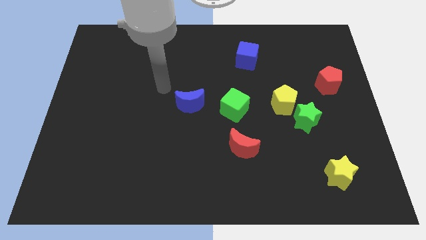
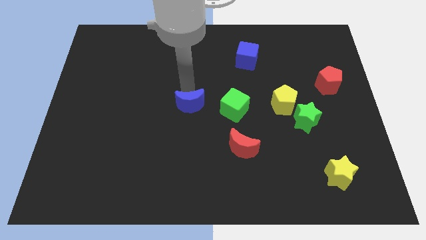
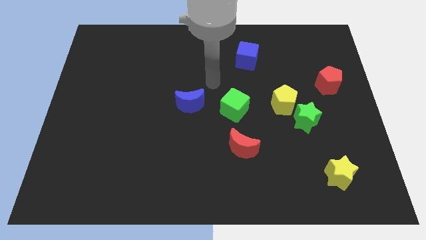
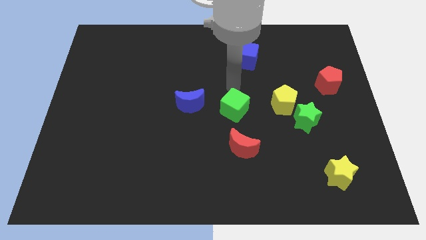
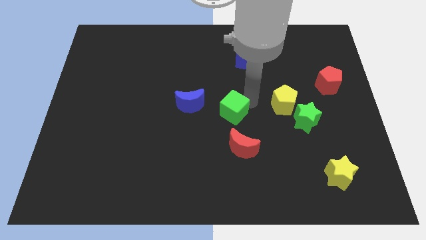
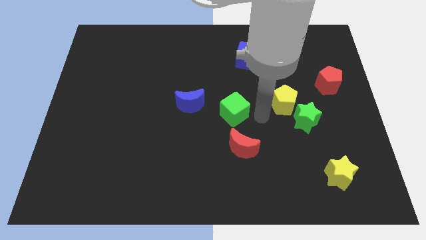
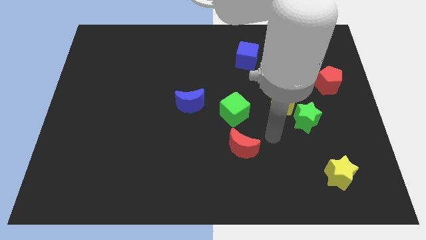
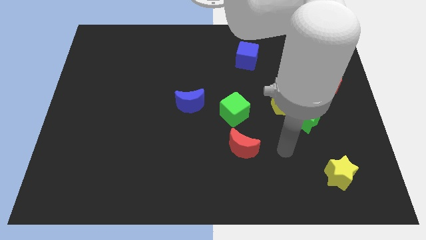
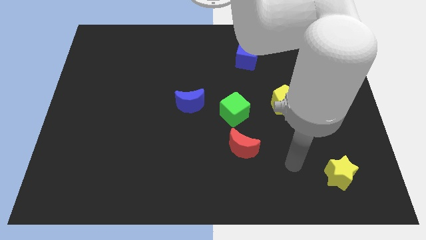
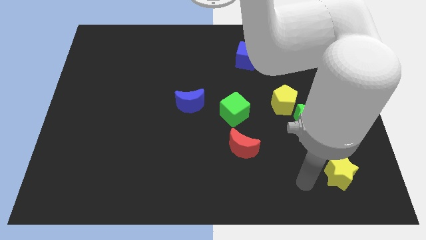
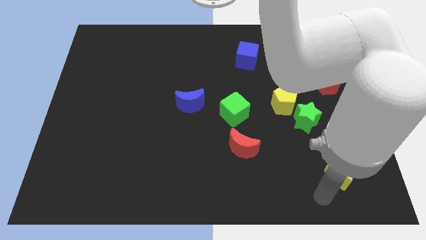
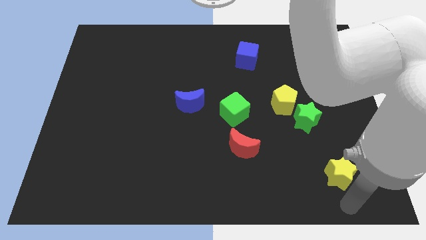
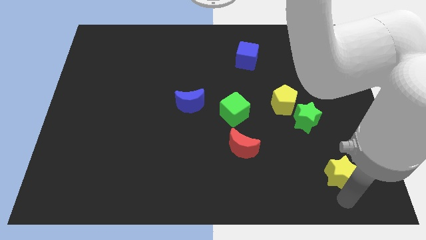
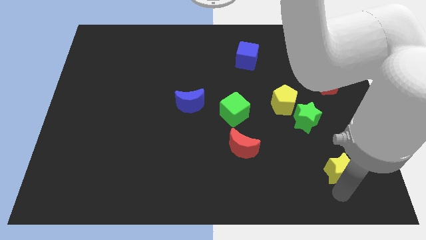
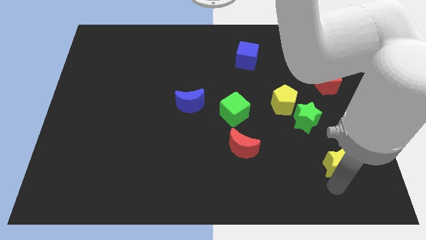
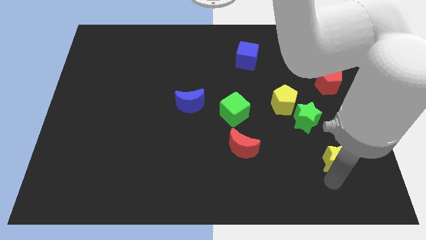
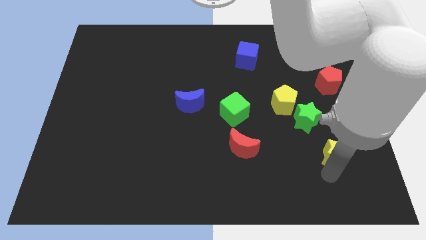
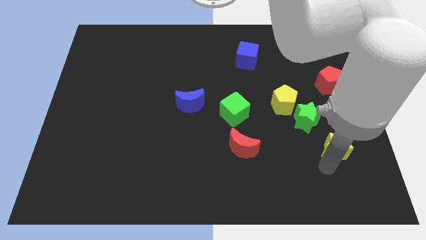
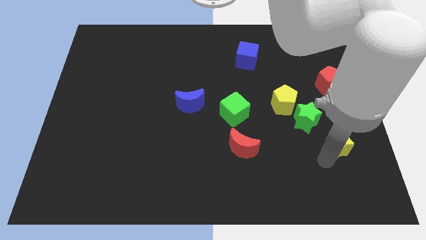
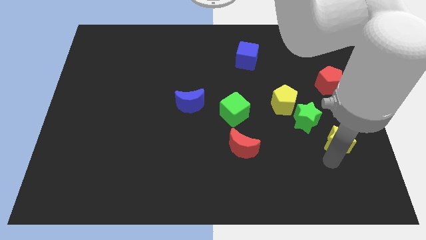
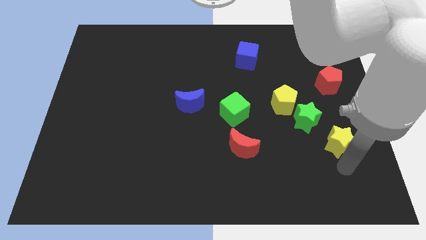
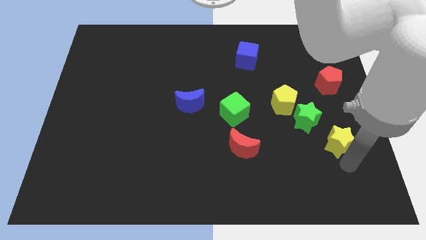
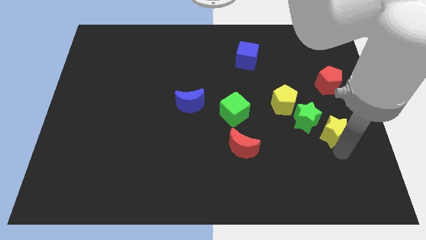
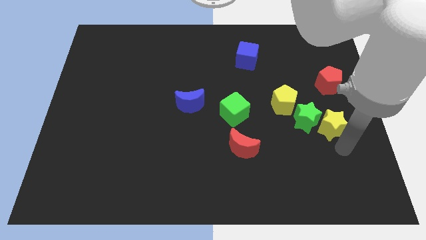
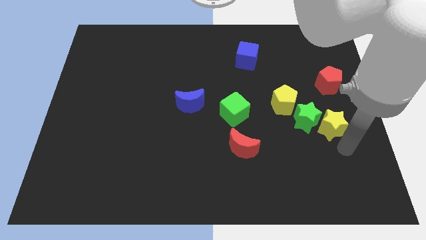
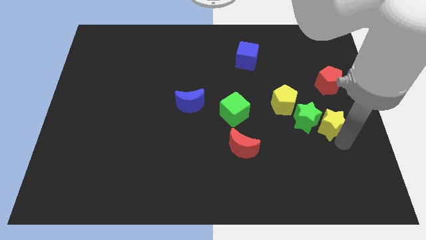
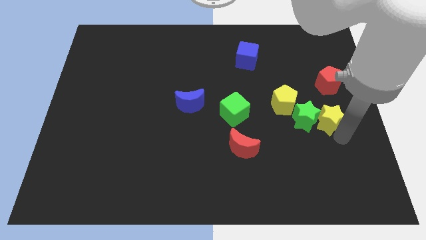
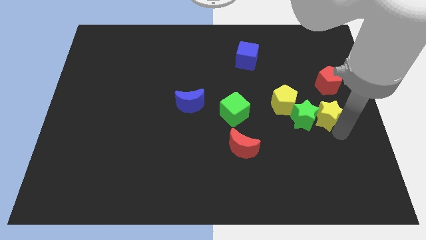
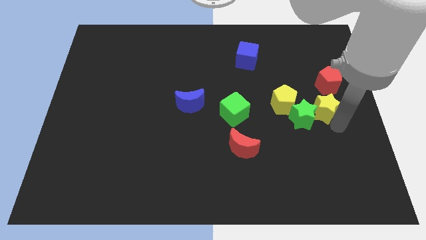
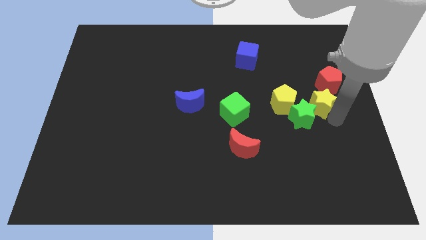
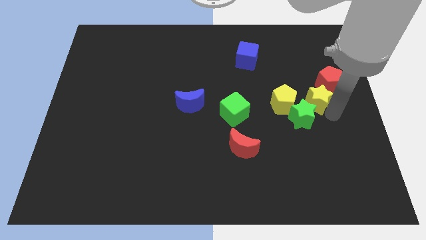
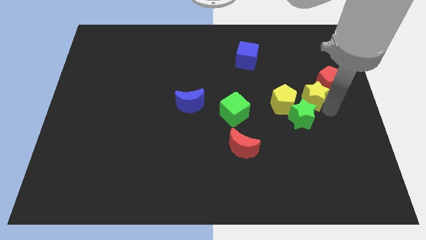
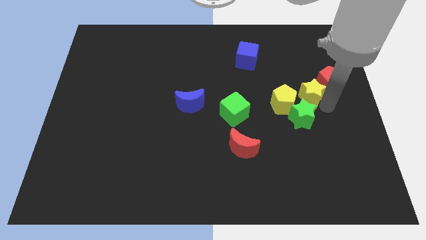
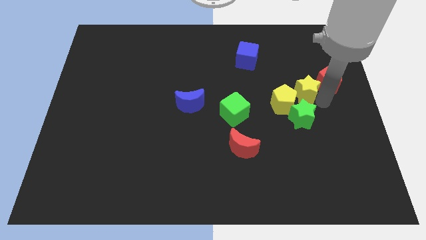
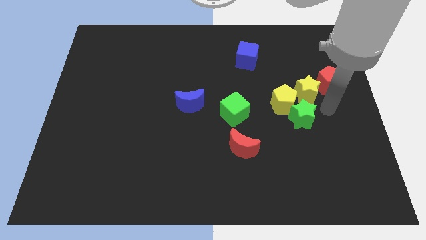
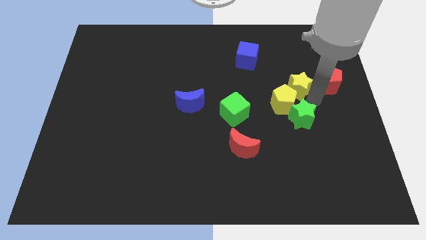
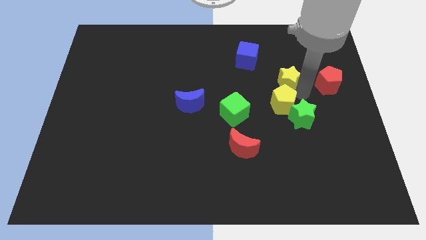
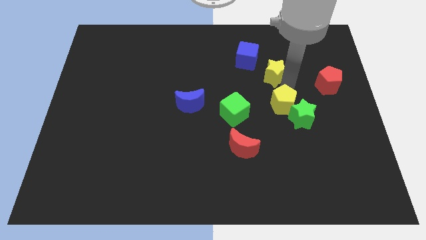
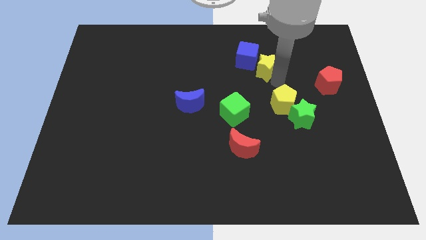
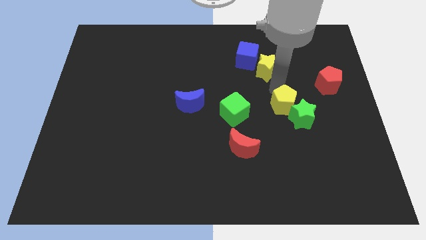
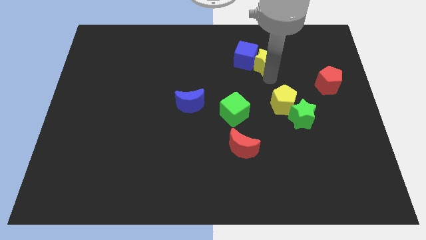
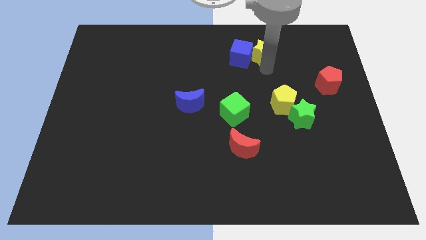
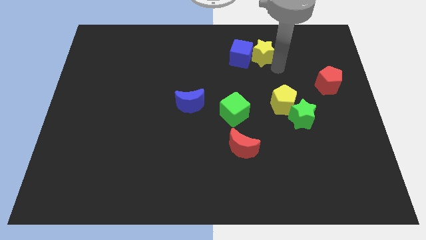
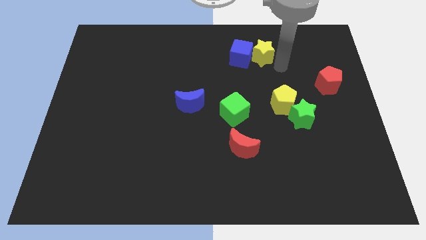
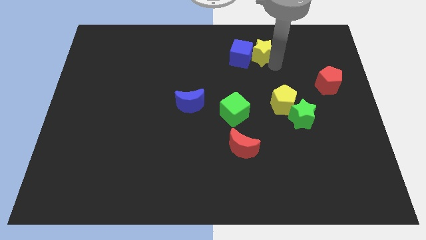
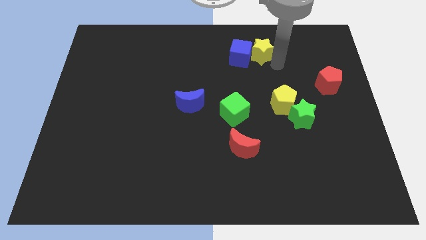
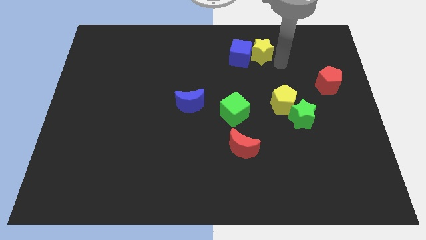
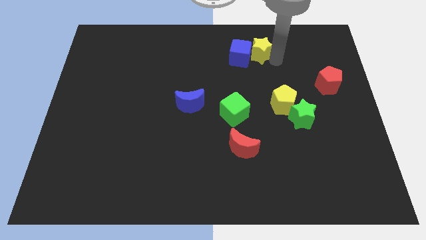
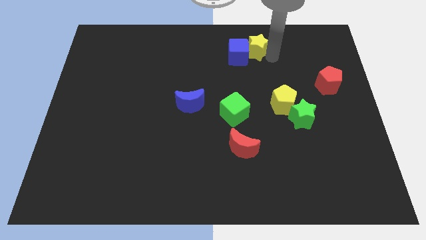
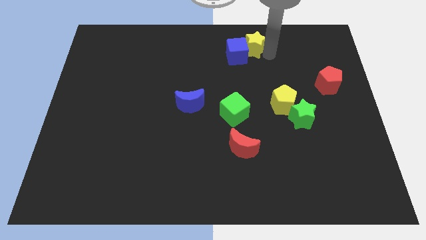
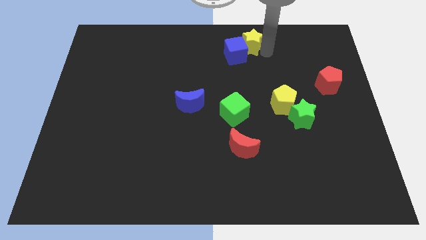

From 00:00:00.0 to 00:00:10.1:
move the yellow star to the top side

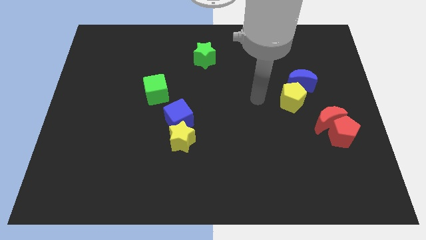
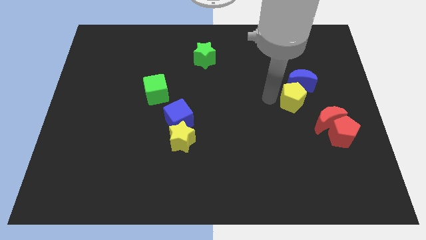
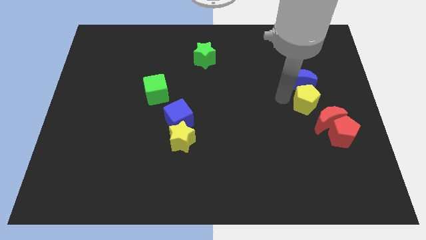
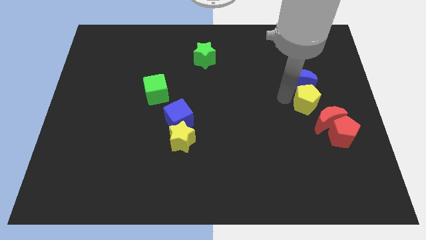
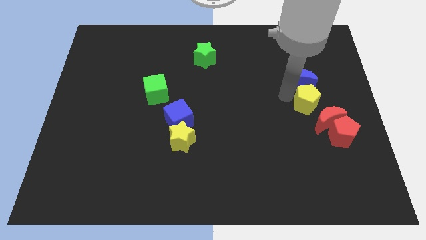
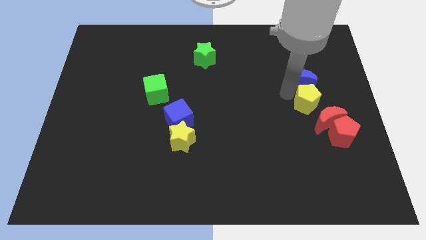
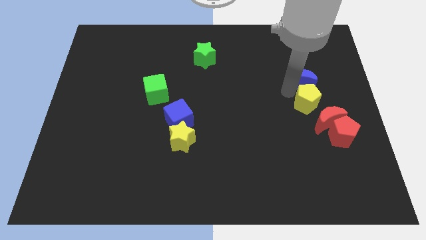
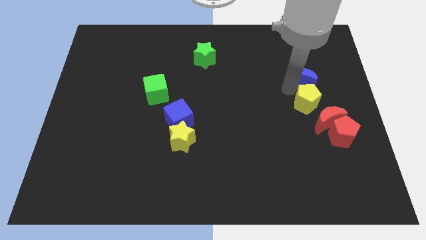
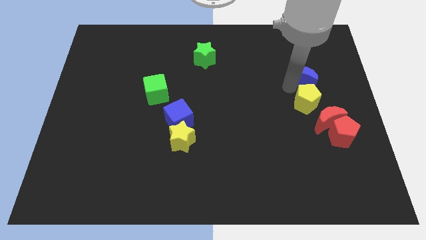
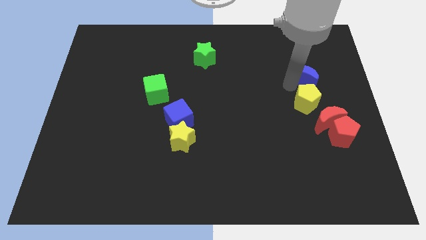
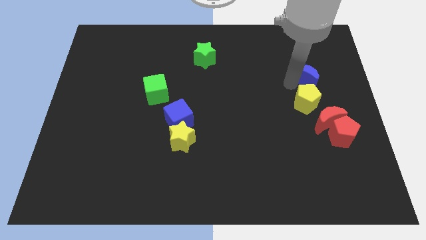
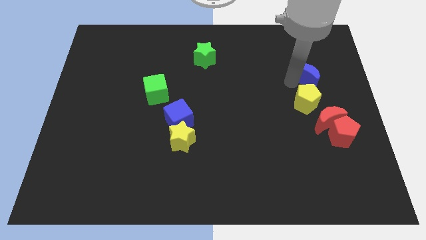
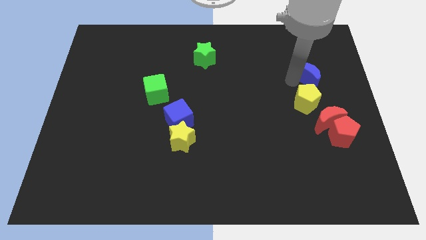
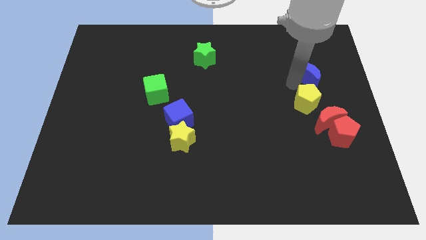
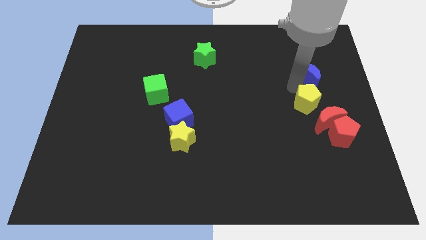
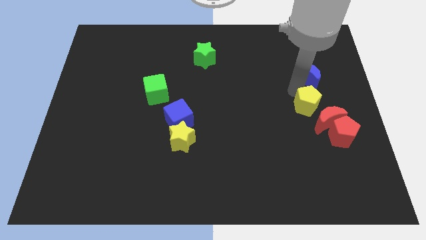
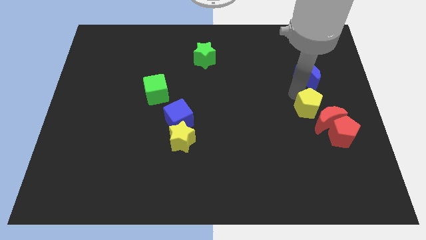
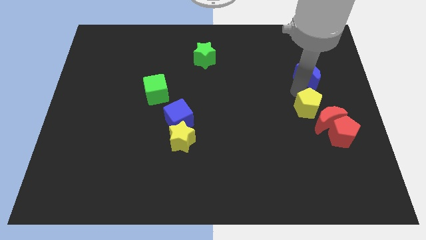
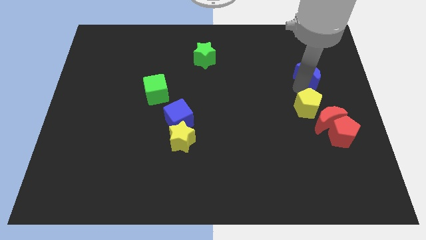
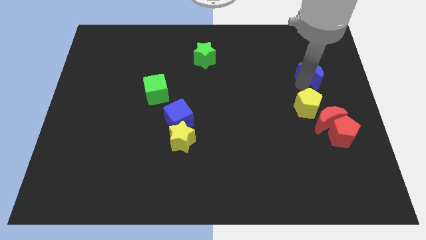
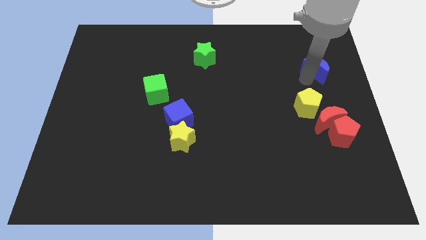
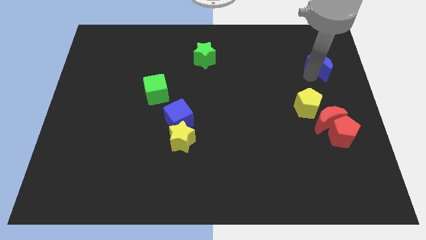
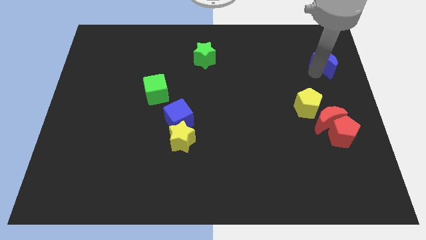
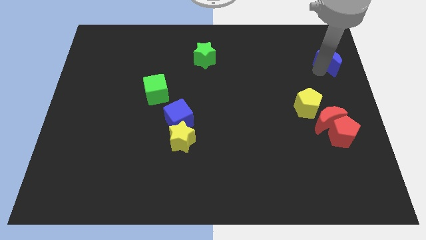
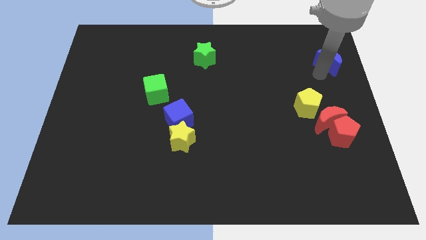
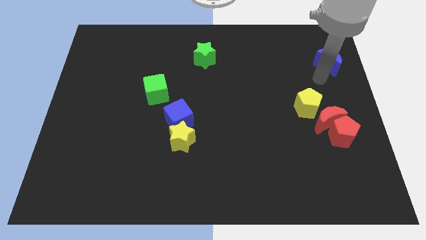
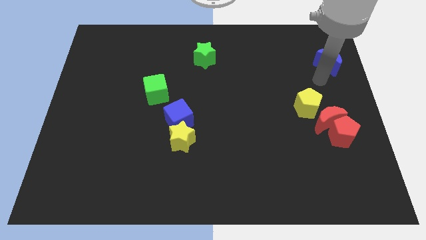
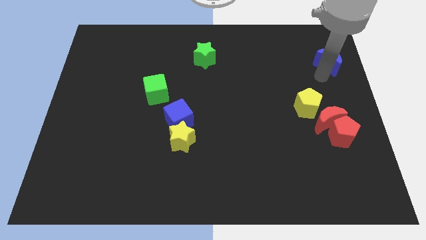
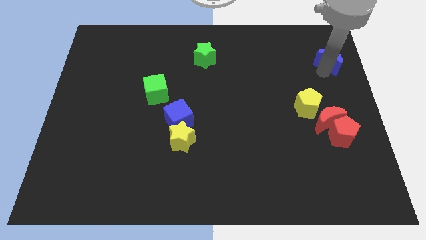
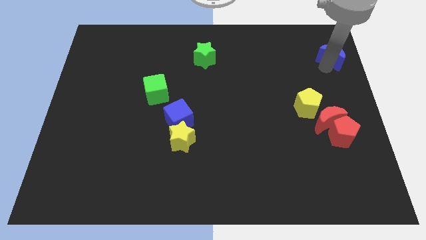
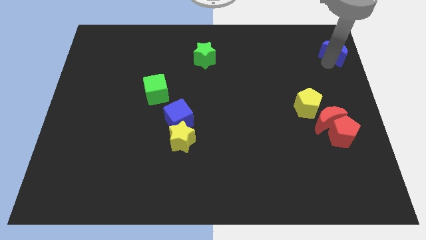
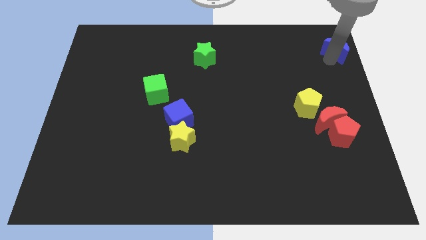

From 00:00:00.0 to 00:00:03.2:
slide the blue moon to the upper right corner
